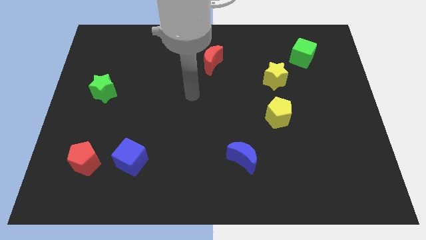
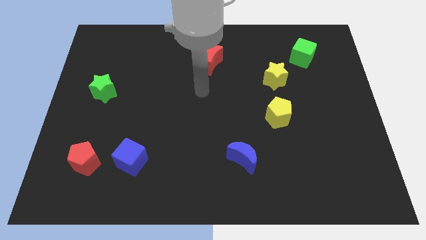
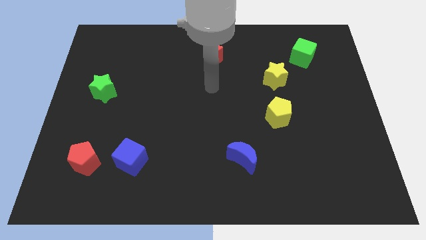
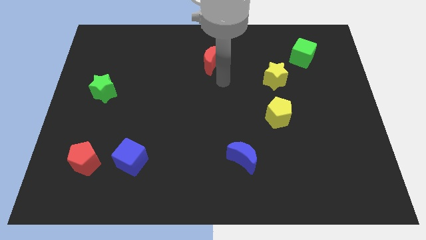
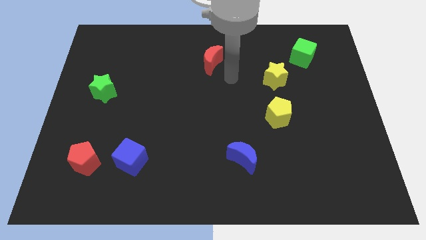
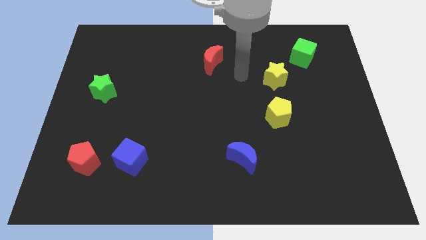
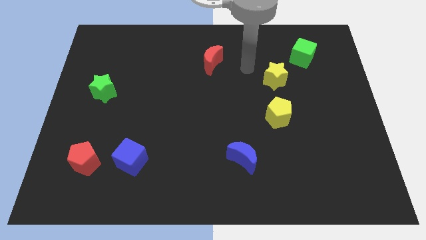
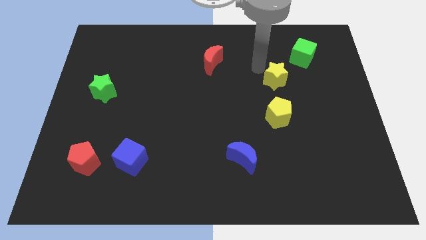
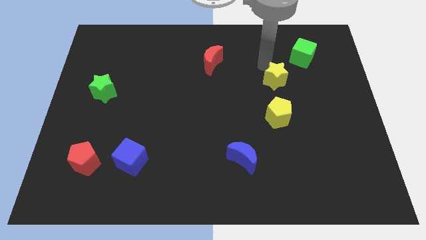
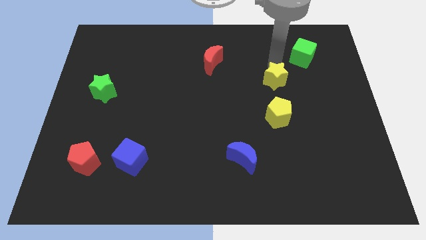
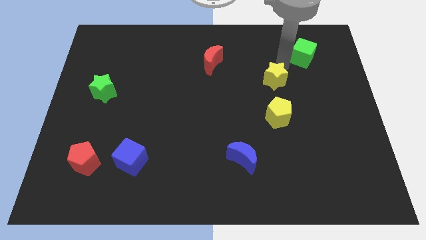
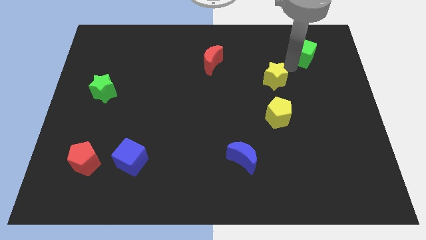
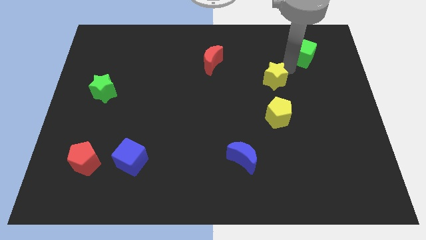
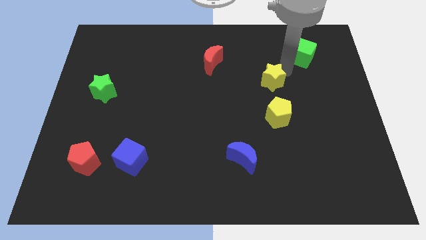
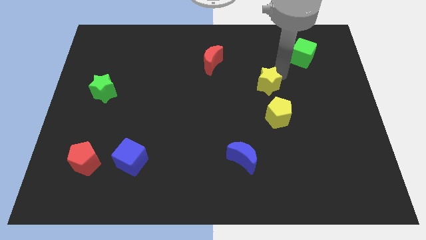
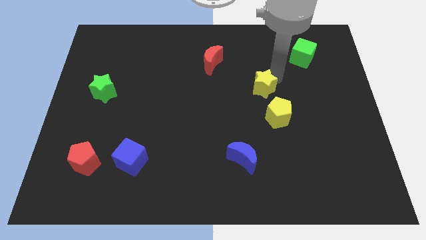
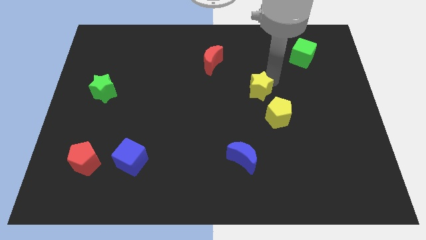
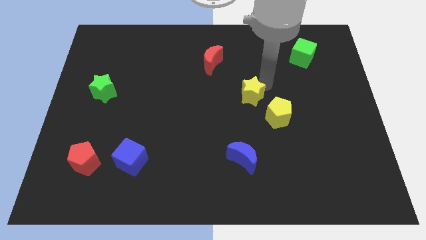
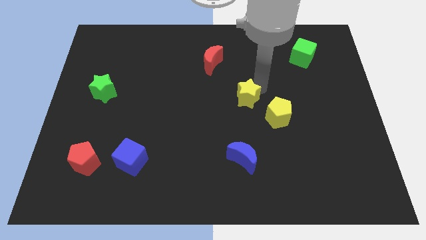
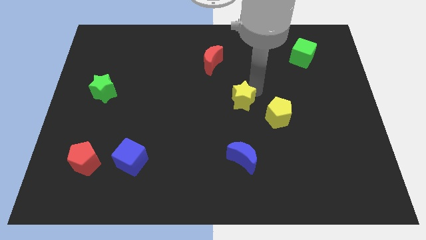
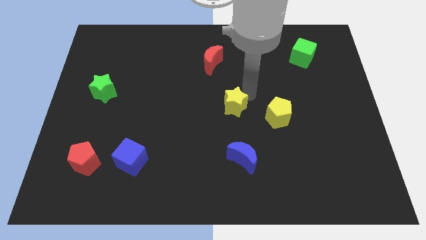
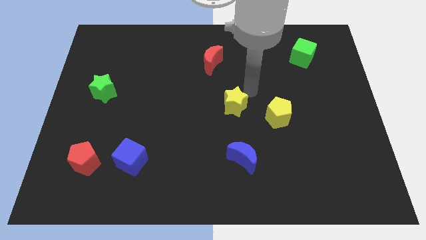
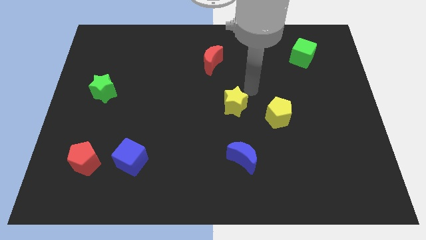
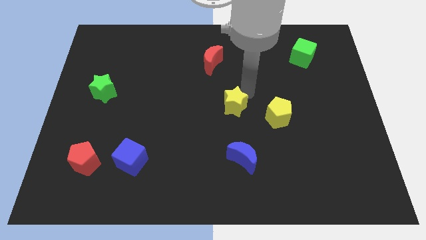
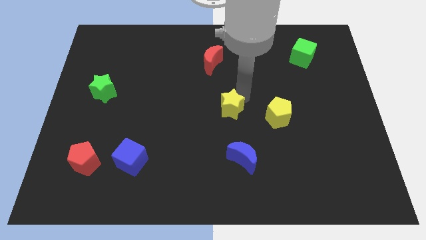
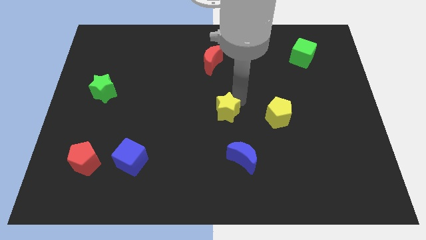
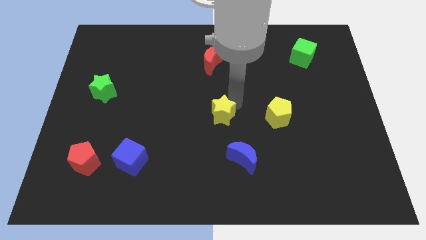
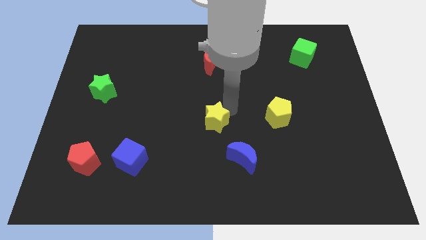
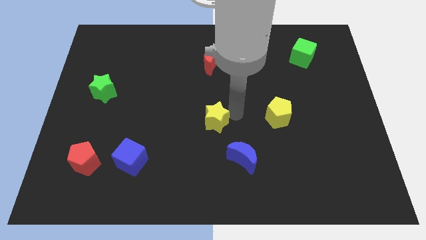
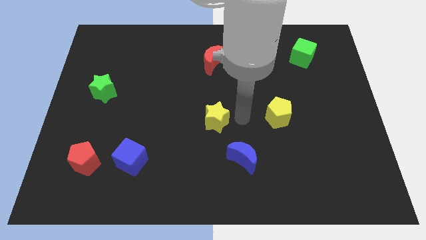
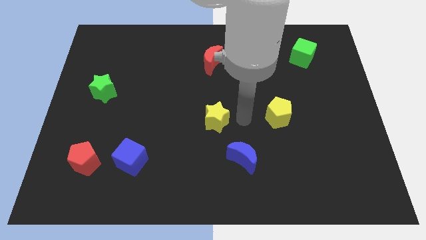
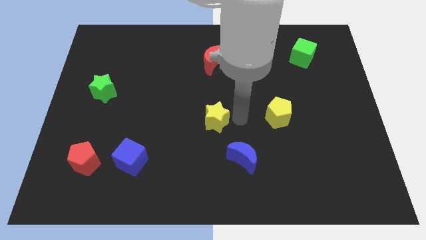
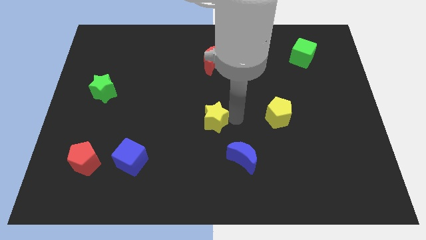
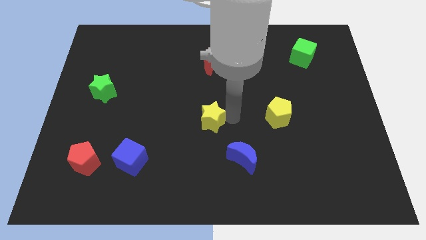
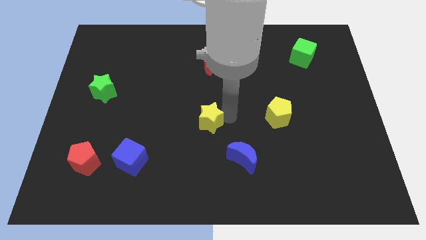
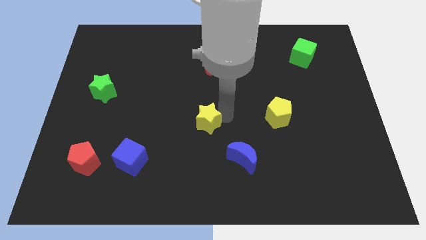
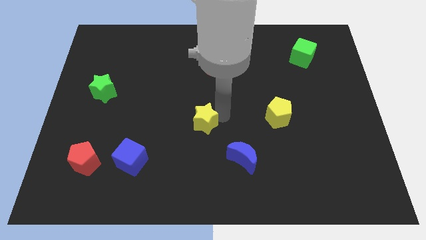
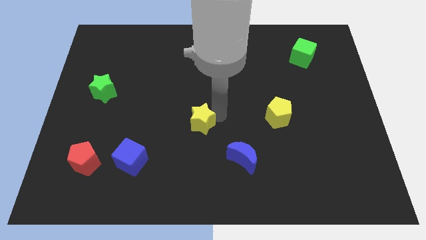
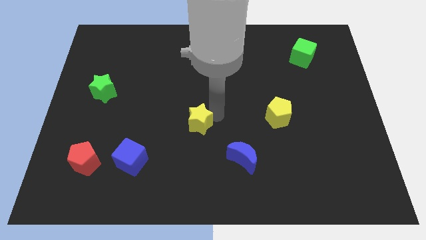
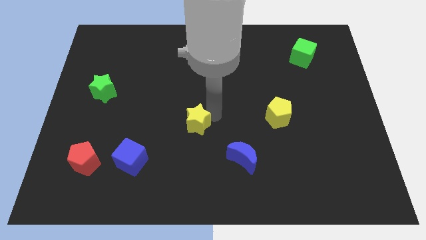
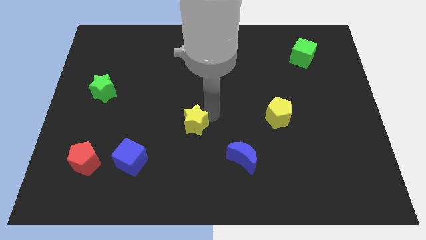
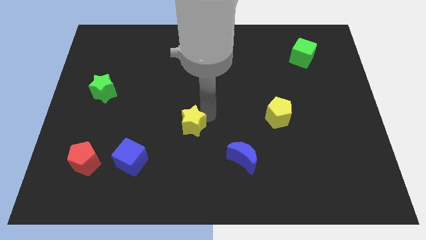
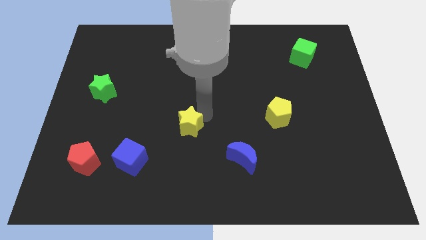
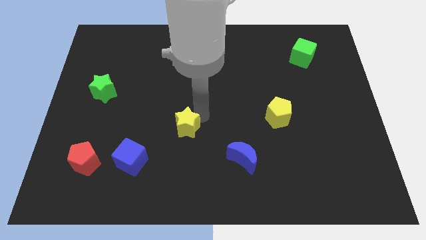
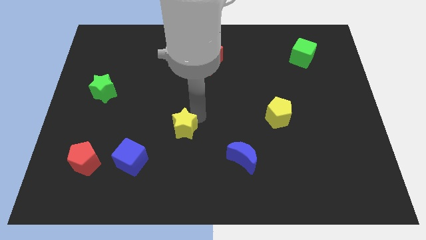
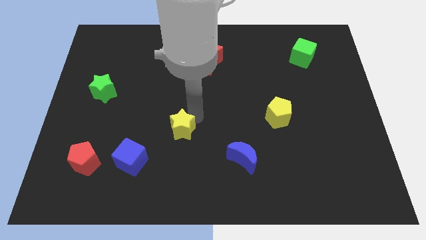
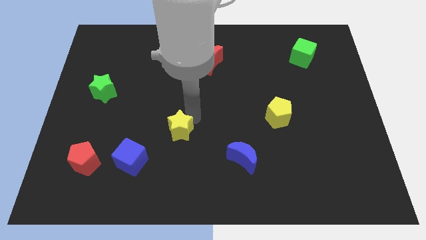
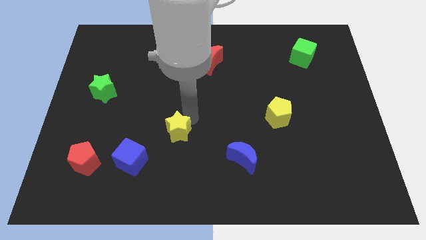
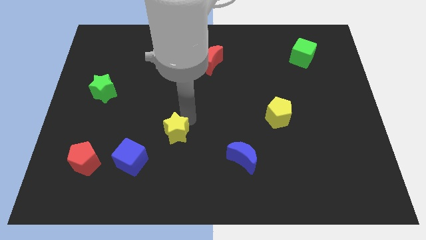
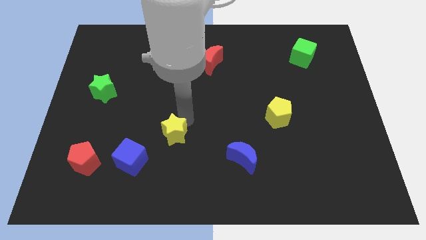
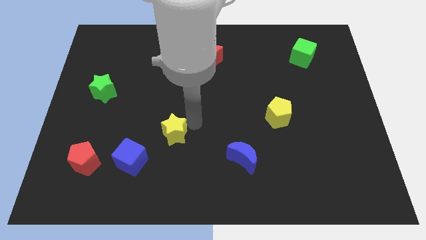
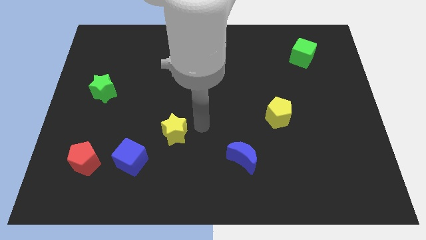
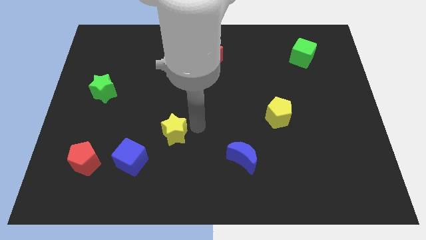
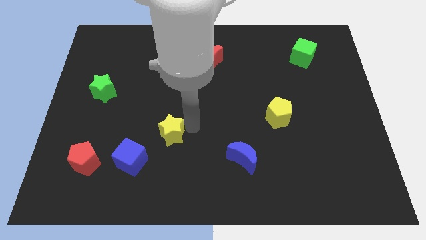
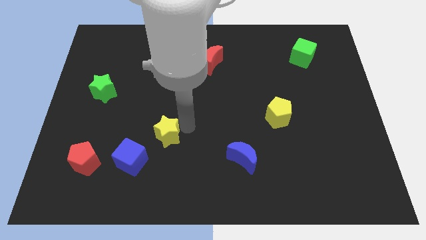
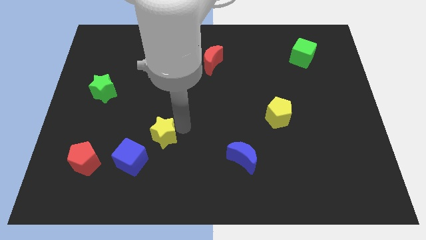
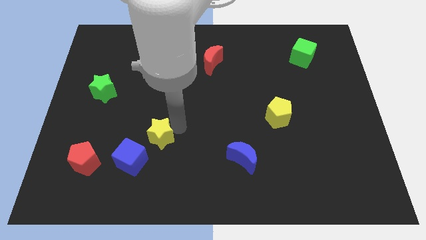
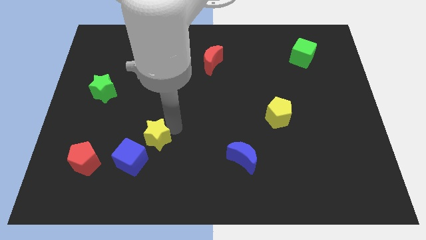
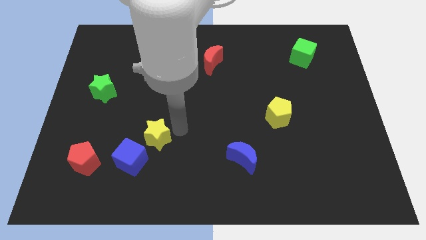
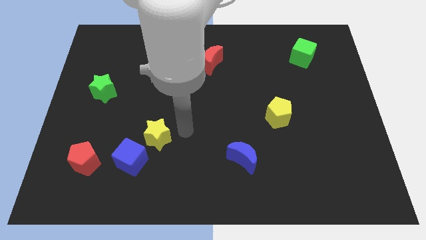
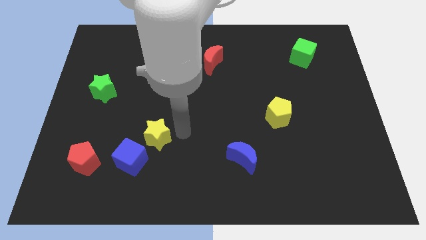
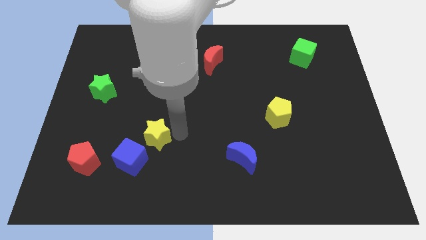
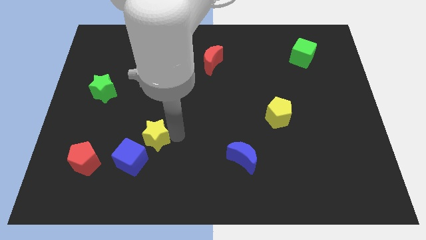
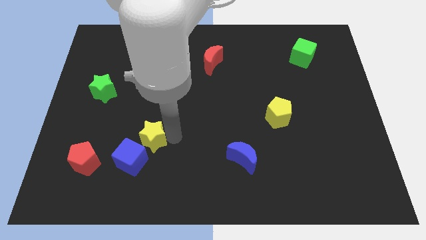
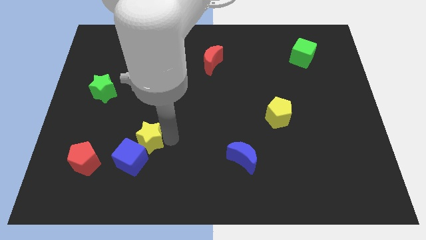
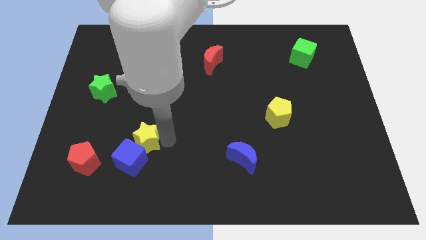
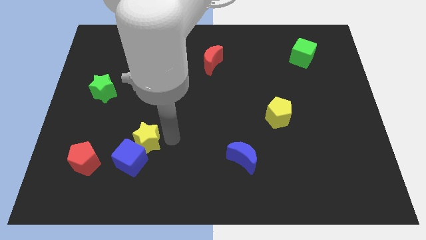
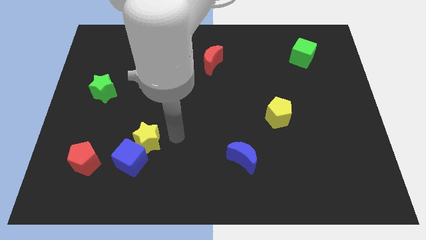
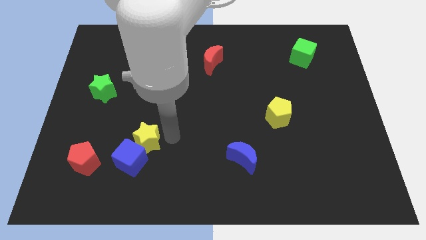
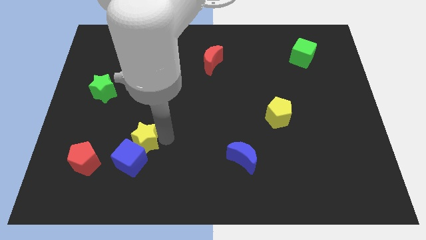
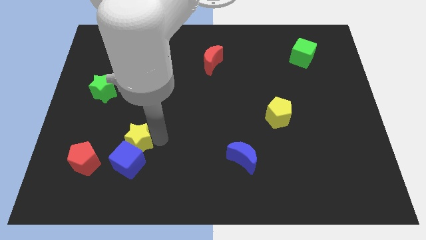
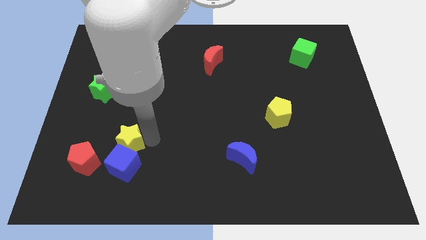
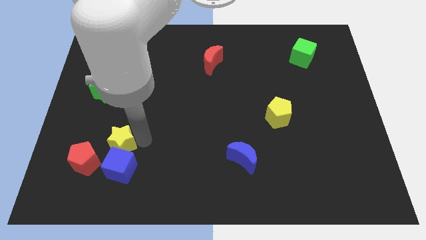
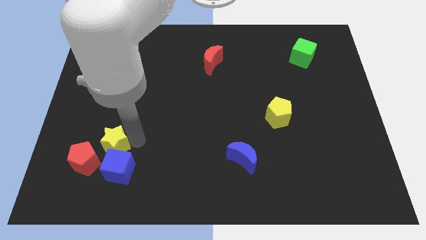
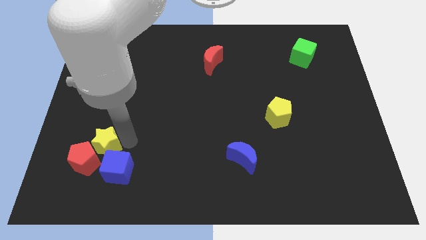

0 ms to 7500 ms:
put the yellow star towards the red pentagon
